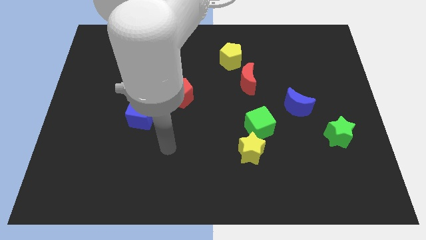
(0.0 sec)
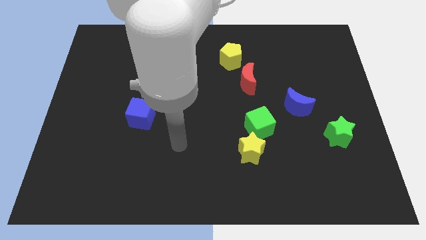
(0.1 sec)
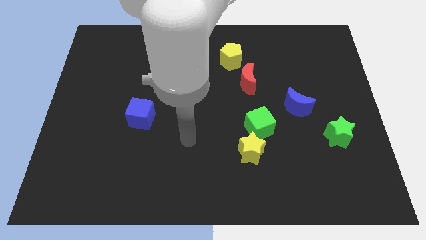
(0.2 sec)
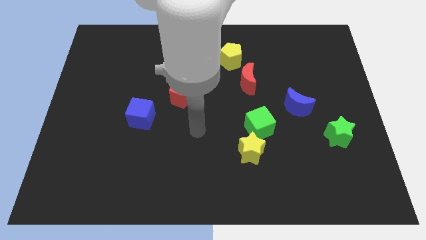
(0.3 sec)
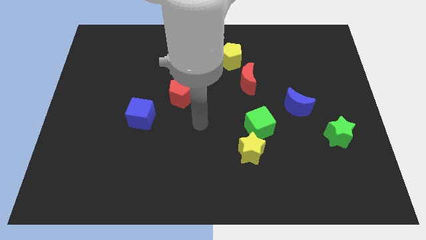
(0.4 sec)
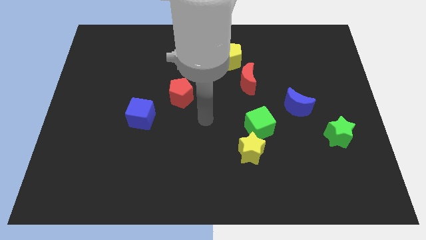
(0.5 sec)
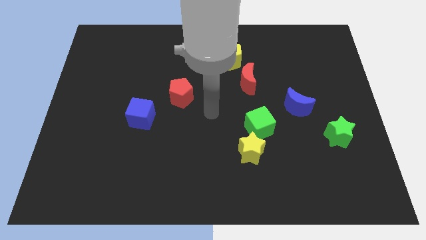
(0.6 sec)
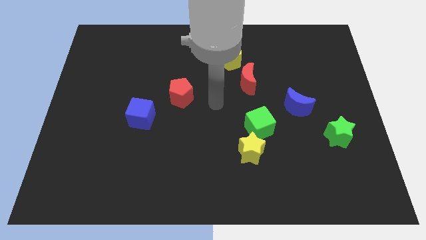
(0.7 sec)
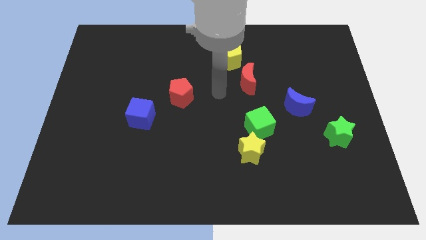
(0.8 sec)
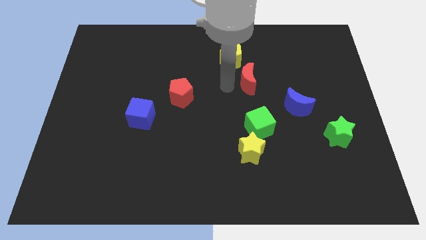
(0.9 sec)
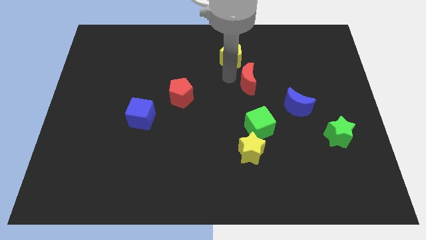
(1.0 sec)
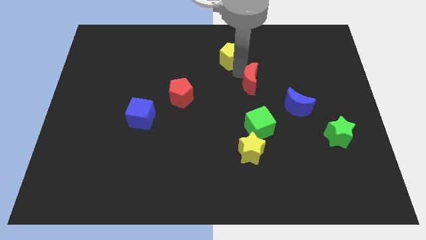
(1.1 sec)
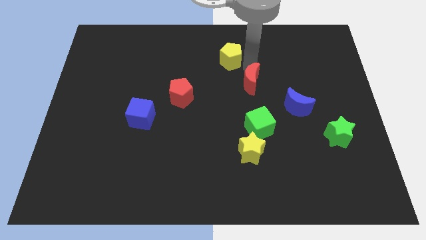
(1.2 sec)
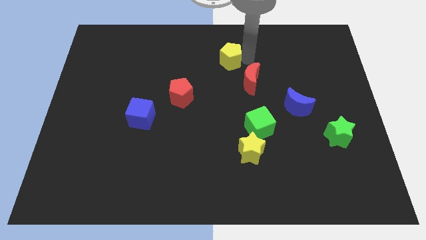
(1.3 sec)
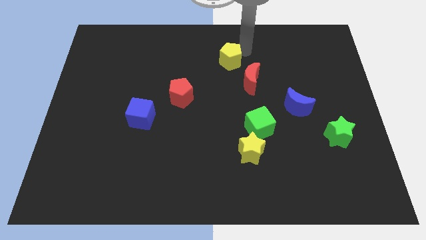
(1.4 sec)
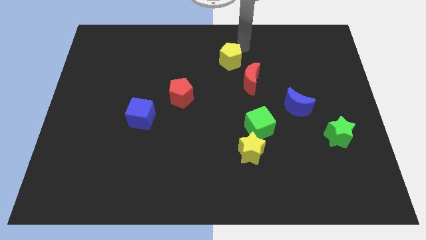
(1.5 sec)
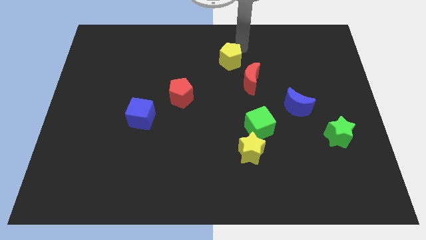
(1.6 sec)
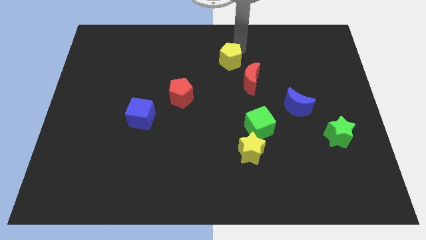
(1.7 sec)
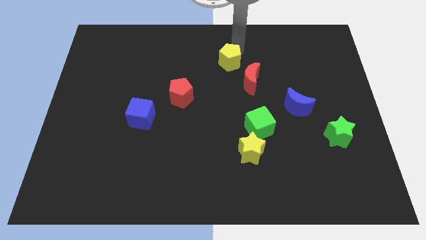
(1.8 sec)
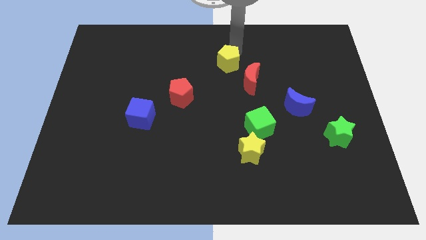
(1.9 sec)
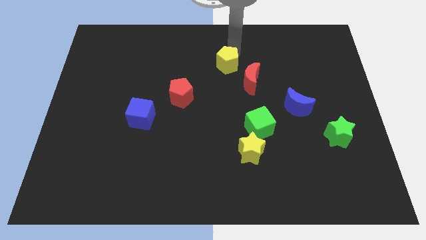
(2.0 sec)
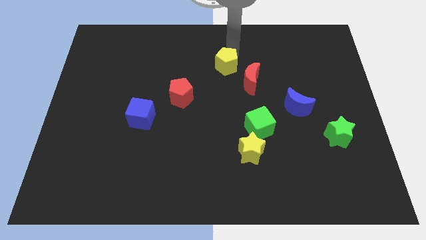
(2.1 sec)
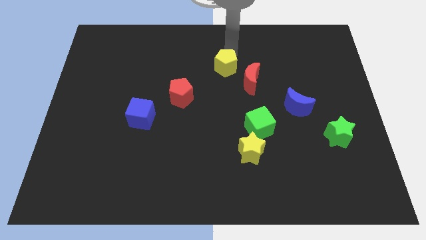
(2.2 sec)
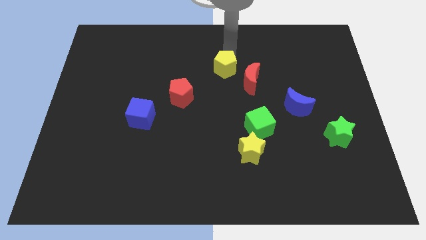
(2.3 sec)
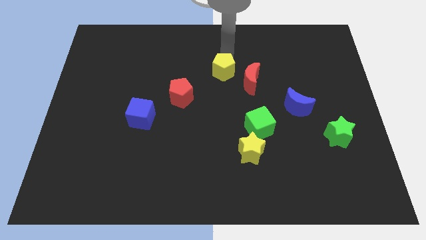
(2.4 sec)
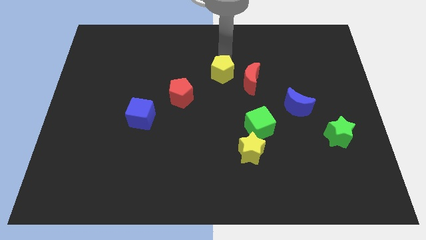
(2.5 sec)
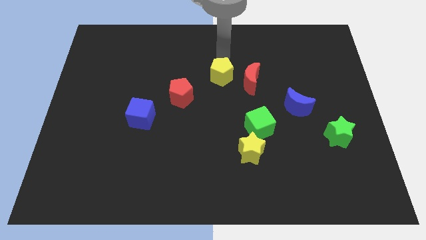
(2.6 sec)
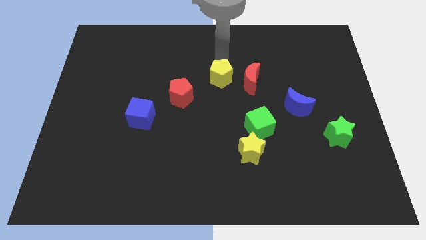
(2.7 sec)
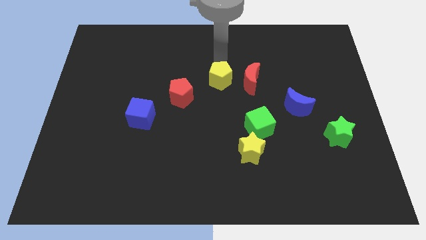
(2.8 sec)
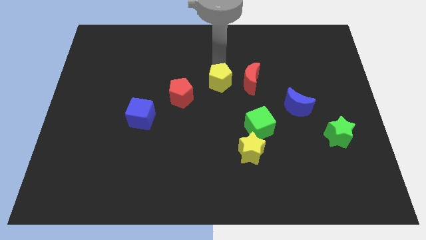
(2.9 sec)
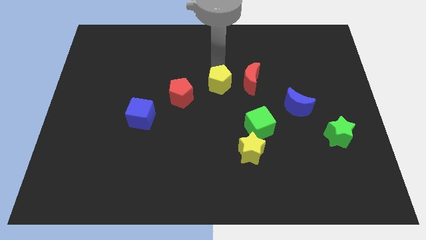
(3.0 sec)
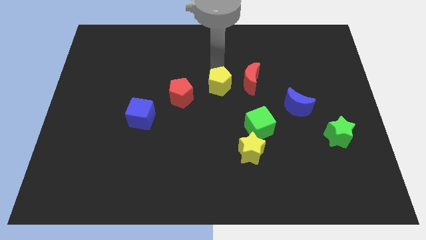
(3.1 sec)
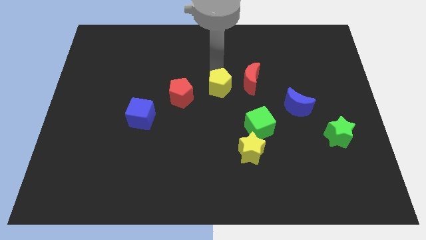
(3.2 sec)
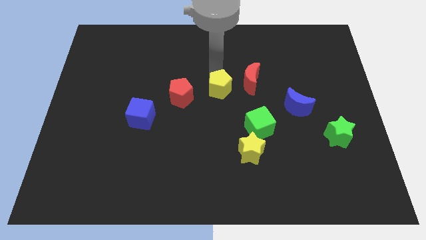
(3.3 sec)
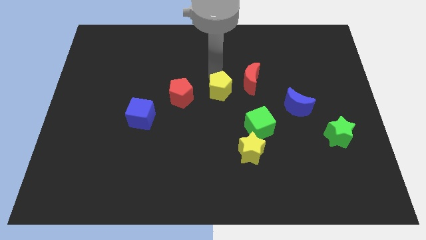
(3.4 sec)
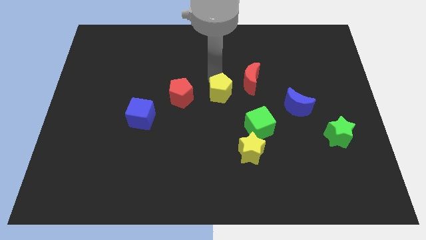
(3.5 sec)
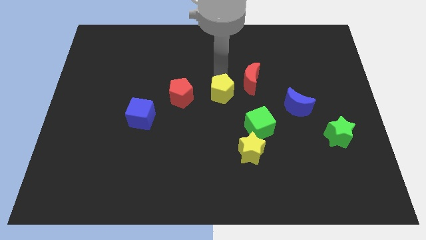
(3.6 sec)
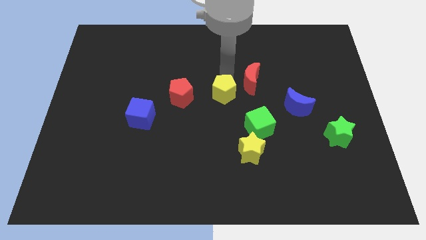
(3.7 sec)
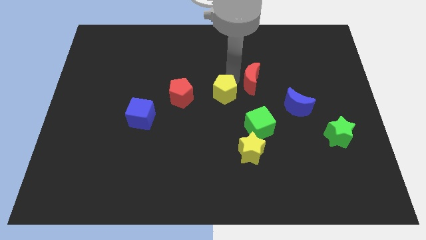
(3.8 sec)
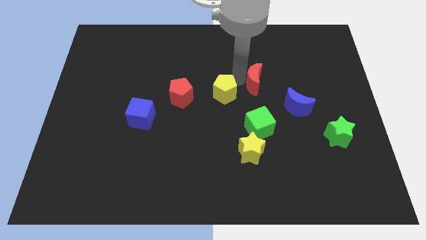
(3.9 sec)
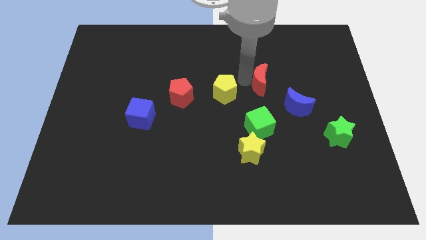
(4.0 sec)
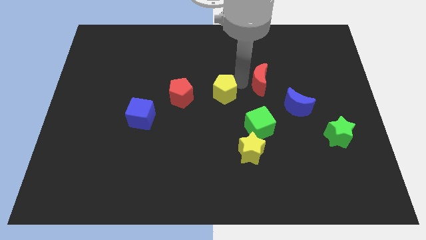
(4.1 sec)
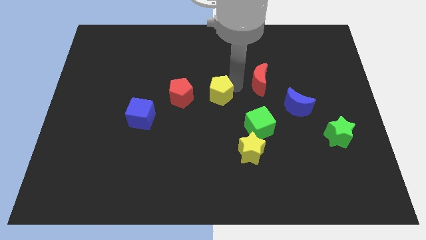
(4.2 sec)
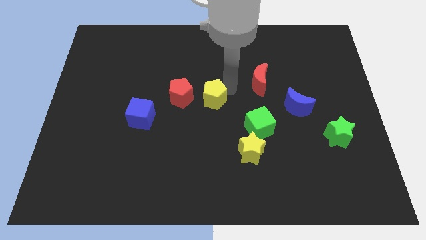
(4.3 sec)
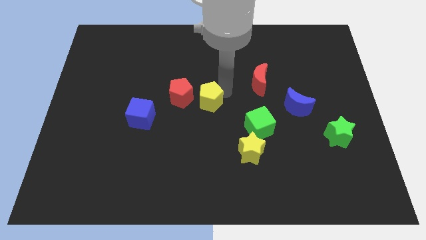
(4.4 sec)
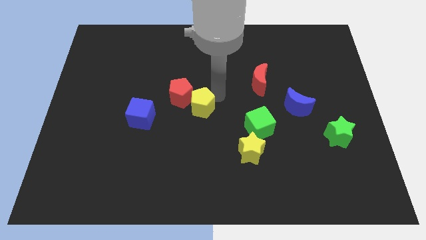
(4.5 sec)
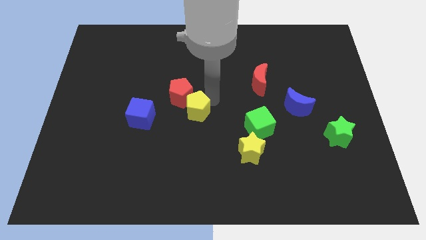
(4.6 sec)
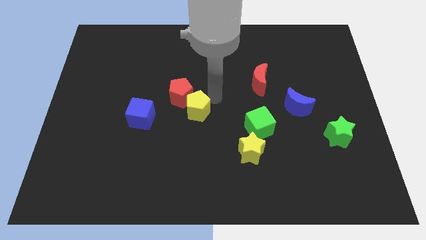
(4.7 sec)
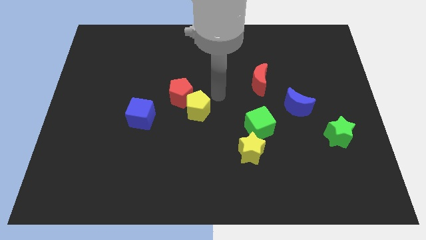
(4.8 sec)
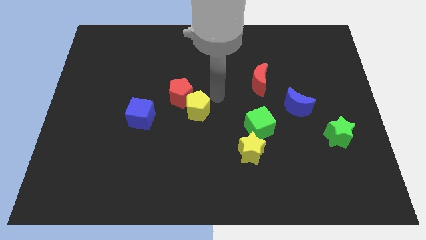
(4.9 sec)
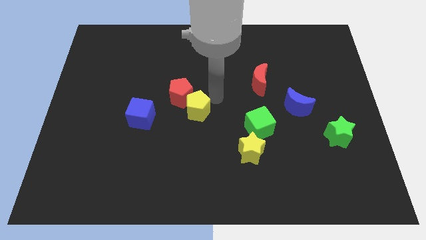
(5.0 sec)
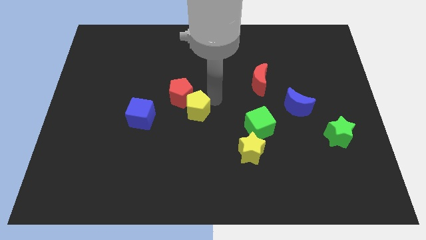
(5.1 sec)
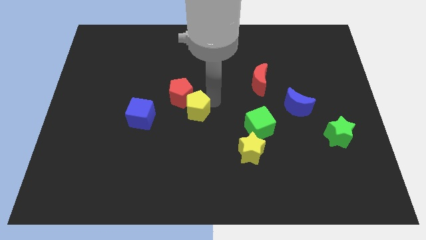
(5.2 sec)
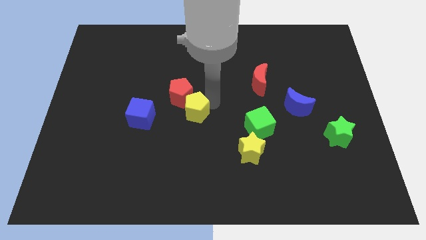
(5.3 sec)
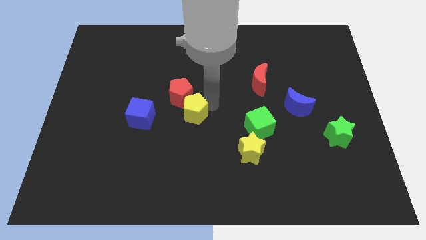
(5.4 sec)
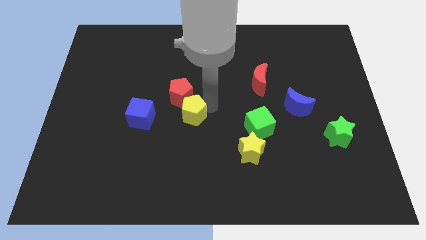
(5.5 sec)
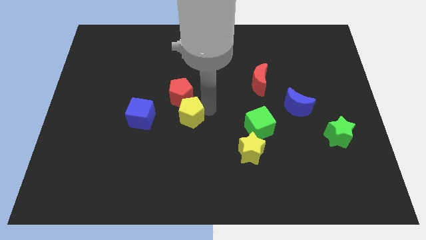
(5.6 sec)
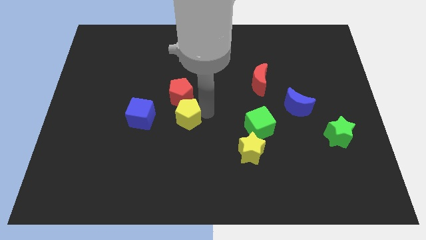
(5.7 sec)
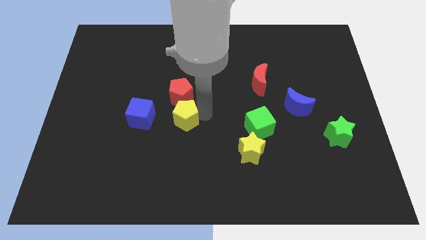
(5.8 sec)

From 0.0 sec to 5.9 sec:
slide the yellow pentagon downwards and to the left

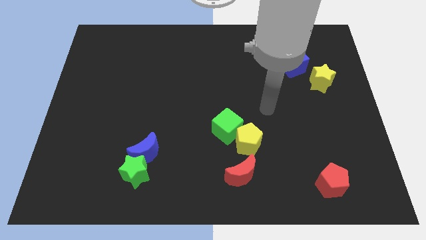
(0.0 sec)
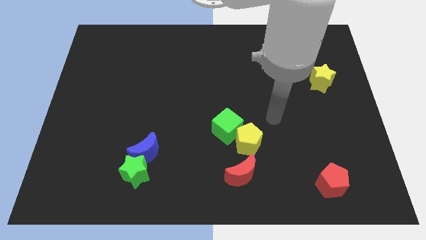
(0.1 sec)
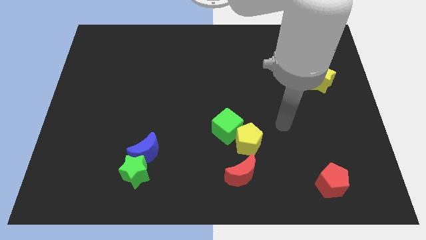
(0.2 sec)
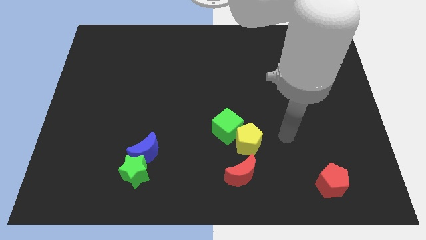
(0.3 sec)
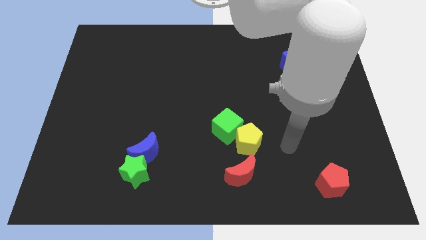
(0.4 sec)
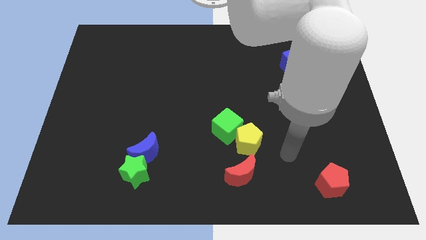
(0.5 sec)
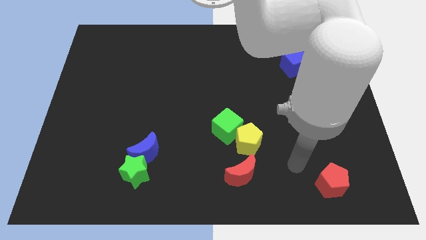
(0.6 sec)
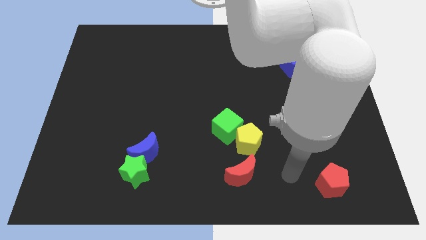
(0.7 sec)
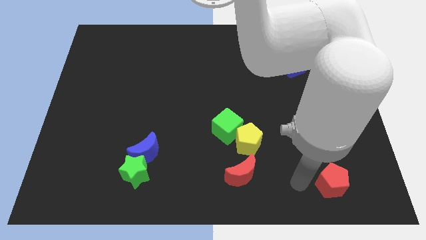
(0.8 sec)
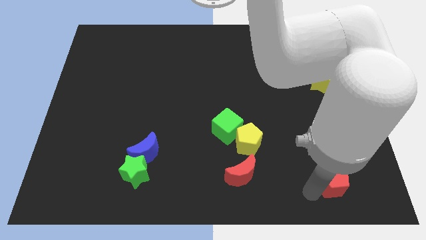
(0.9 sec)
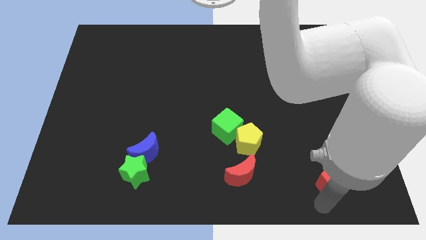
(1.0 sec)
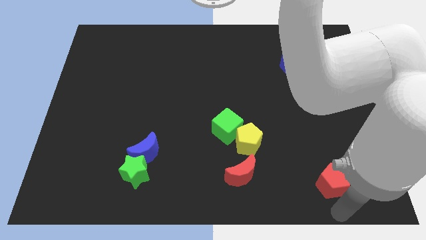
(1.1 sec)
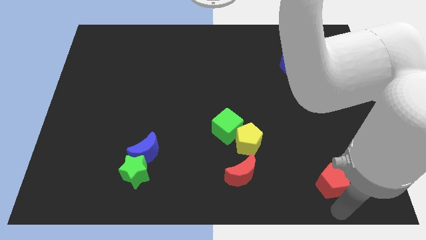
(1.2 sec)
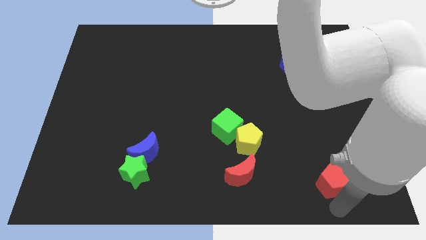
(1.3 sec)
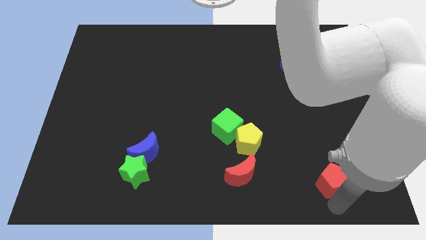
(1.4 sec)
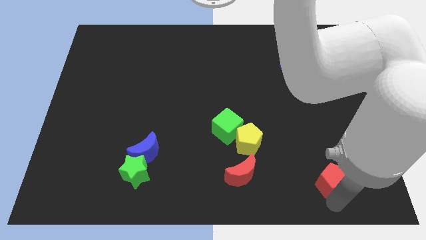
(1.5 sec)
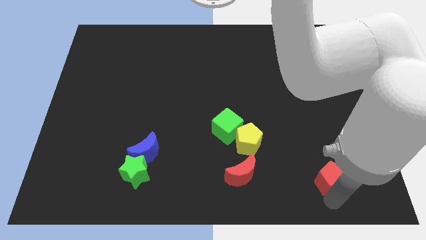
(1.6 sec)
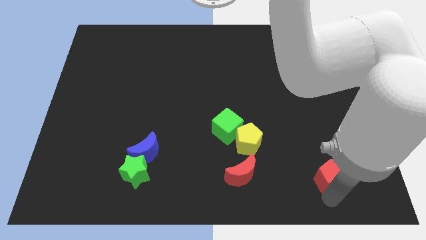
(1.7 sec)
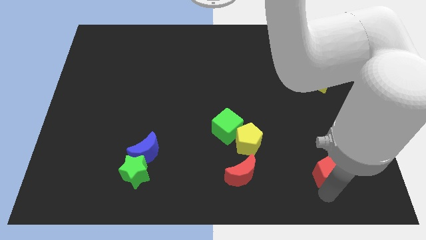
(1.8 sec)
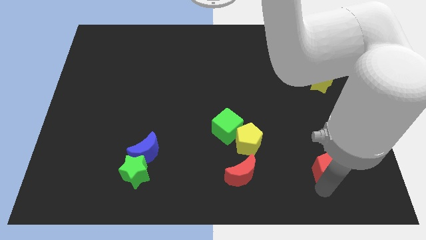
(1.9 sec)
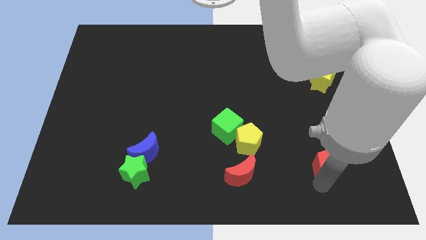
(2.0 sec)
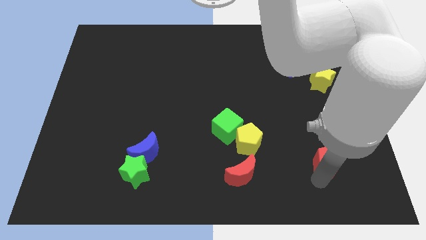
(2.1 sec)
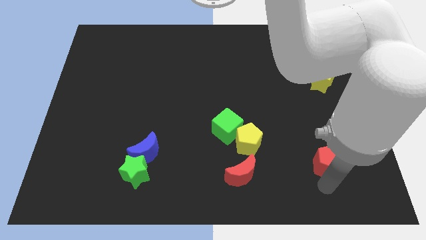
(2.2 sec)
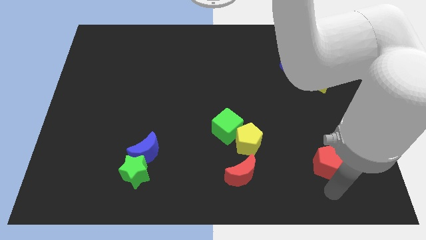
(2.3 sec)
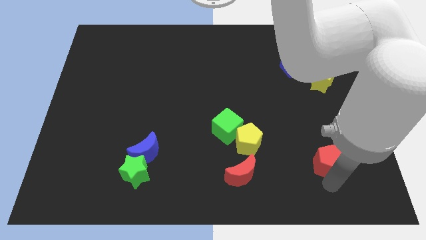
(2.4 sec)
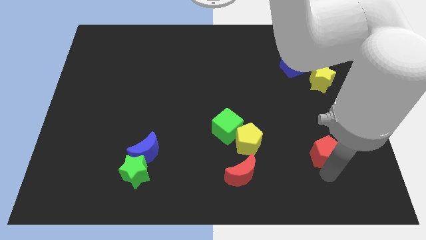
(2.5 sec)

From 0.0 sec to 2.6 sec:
slightly move the red pentagon up
